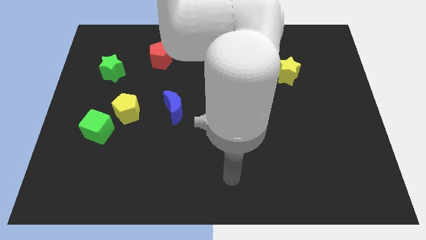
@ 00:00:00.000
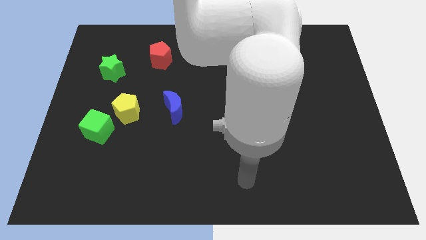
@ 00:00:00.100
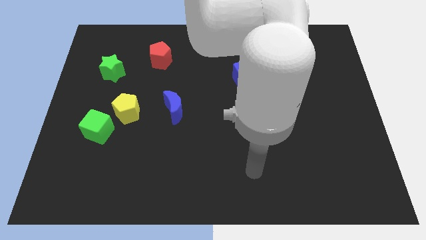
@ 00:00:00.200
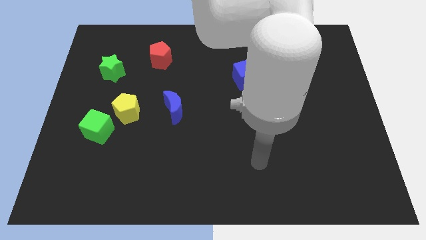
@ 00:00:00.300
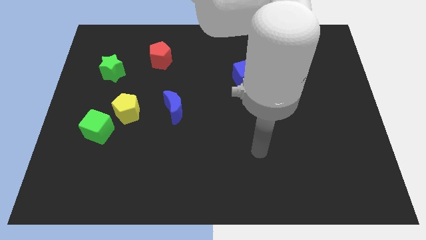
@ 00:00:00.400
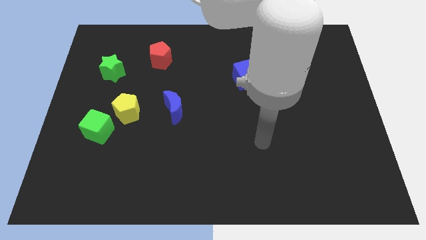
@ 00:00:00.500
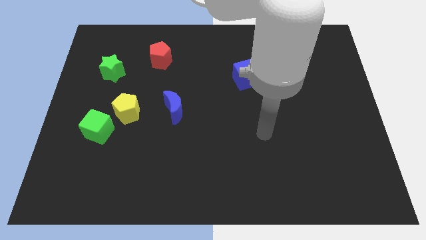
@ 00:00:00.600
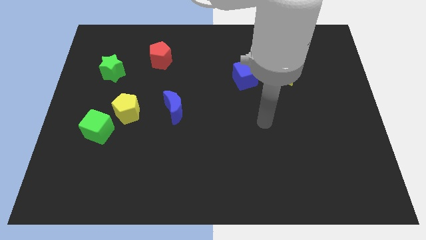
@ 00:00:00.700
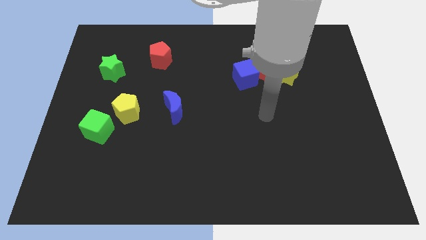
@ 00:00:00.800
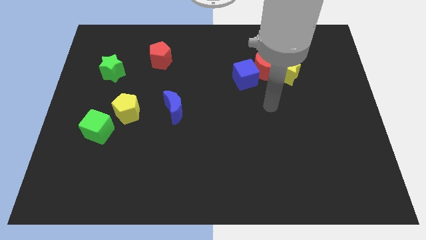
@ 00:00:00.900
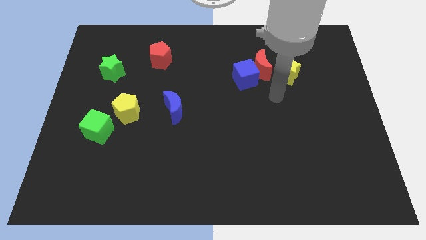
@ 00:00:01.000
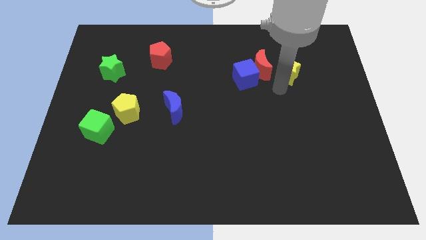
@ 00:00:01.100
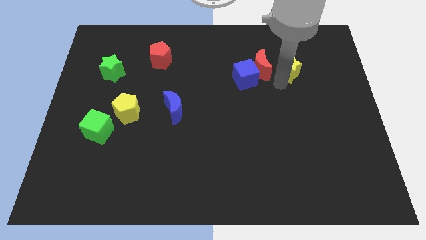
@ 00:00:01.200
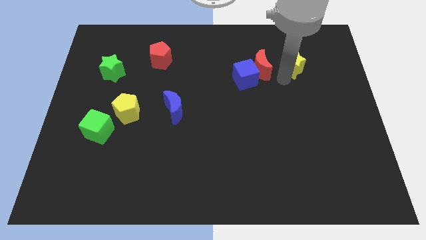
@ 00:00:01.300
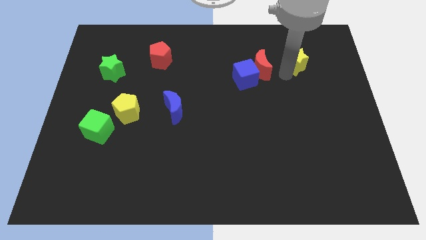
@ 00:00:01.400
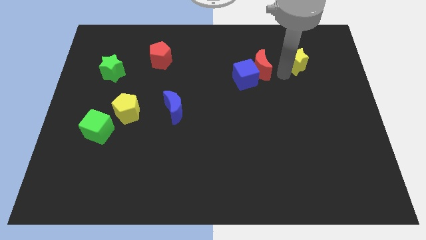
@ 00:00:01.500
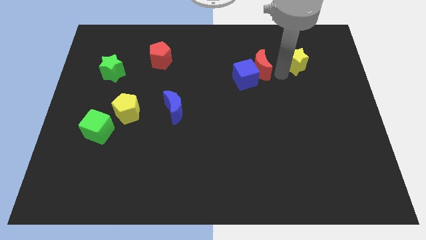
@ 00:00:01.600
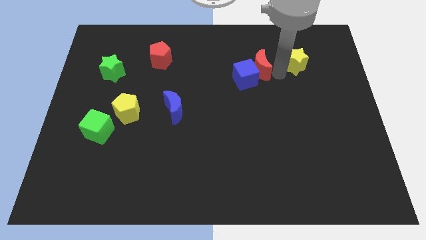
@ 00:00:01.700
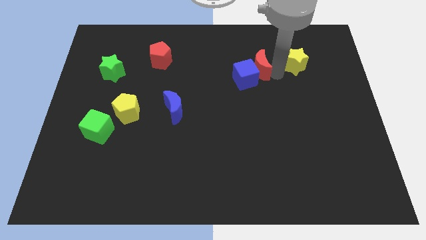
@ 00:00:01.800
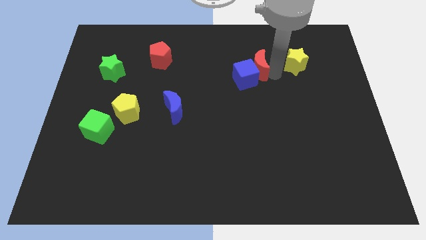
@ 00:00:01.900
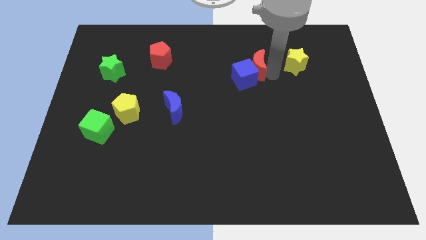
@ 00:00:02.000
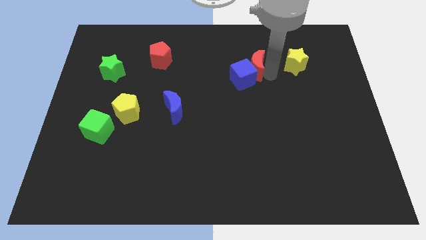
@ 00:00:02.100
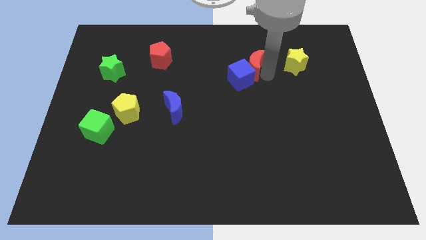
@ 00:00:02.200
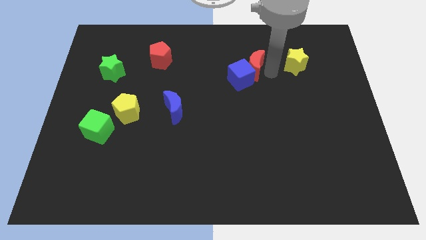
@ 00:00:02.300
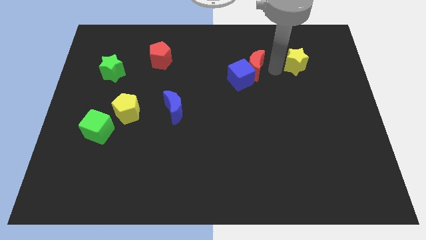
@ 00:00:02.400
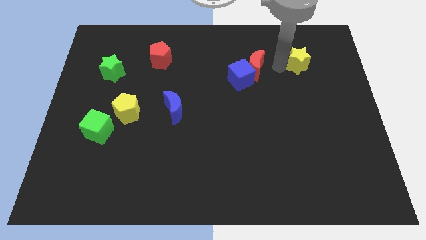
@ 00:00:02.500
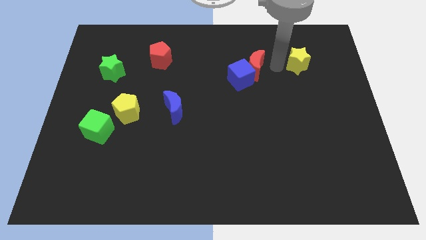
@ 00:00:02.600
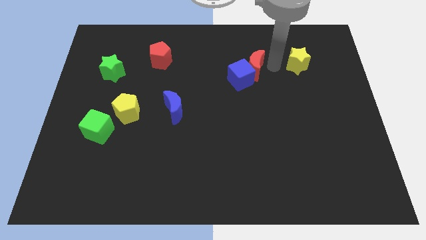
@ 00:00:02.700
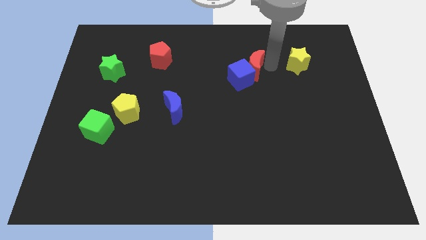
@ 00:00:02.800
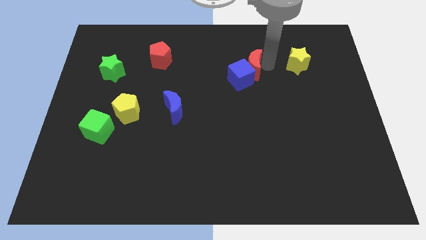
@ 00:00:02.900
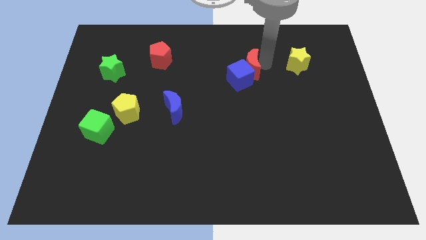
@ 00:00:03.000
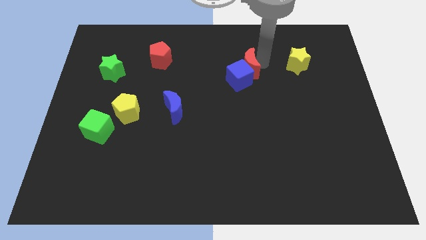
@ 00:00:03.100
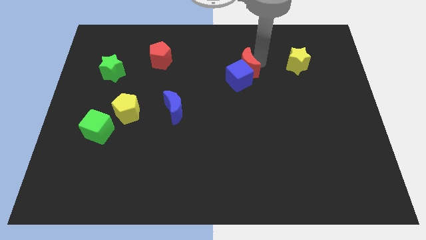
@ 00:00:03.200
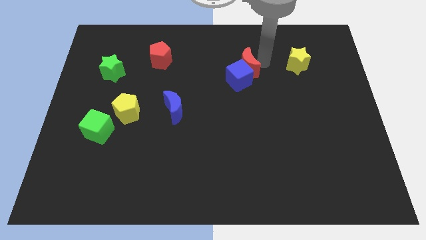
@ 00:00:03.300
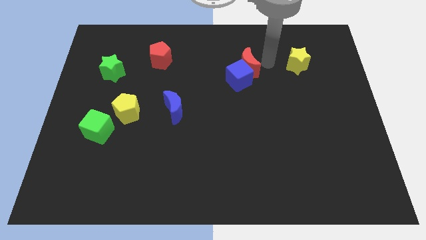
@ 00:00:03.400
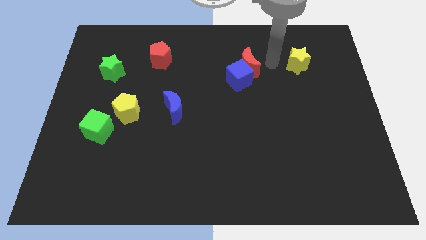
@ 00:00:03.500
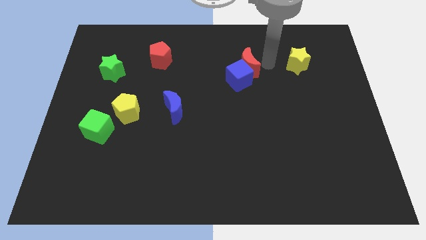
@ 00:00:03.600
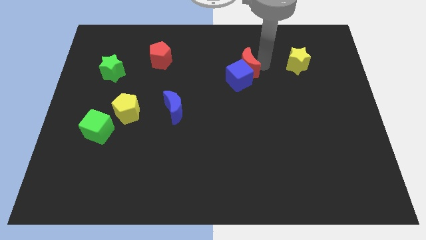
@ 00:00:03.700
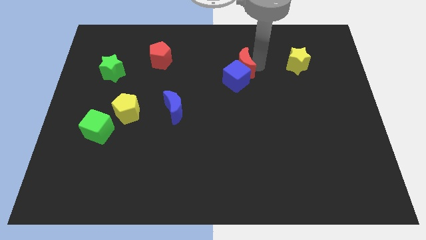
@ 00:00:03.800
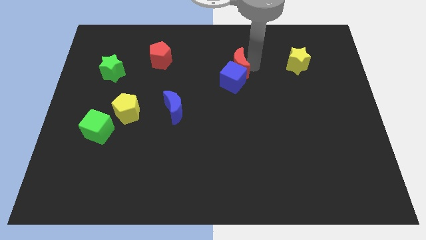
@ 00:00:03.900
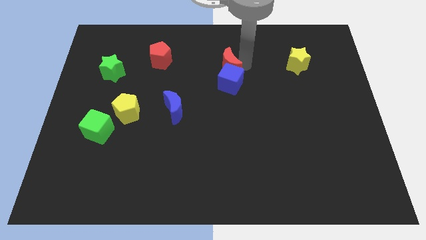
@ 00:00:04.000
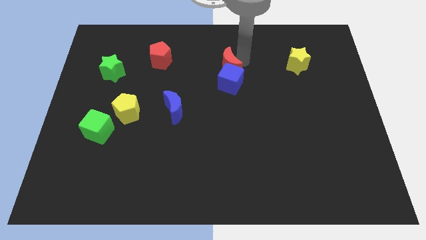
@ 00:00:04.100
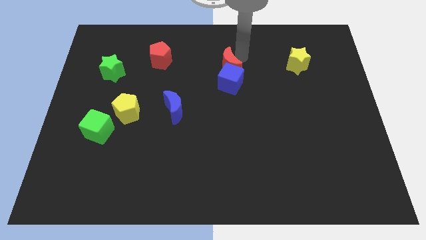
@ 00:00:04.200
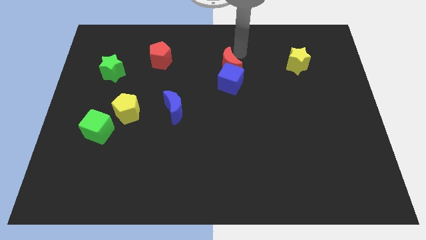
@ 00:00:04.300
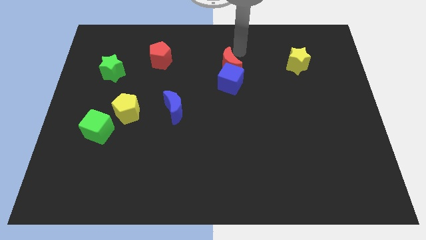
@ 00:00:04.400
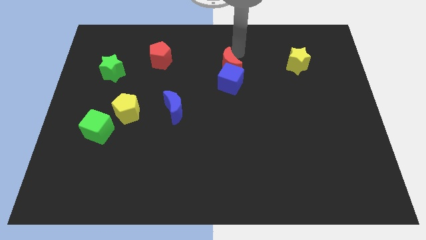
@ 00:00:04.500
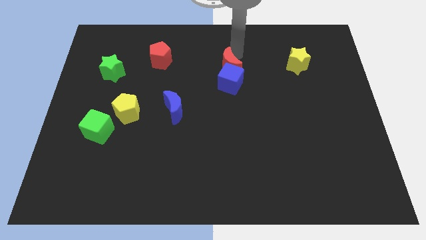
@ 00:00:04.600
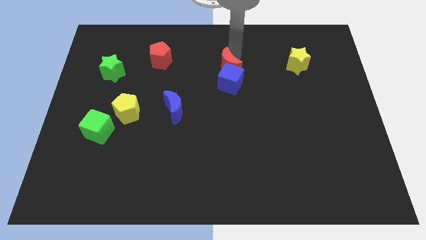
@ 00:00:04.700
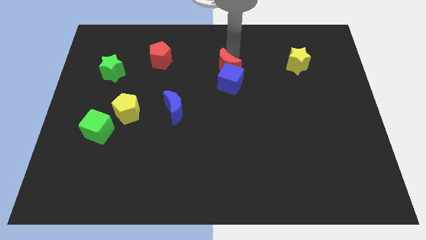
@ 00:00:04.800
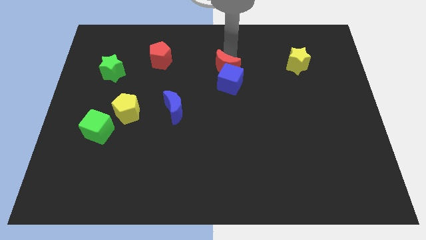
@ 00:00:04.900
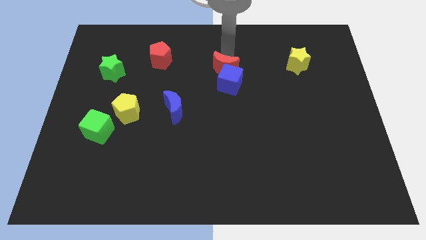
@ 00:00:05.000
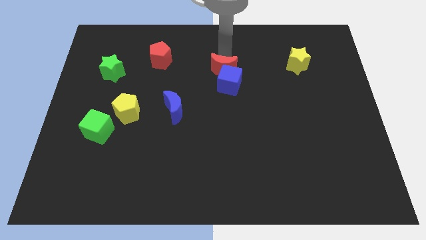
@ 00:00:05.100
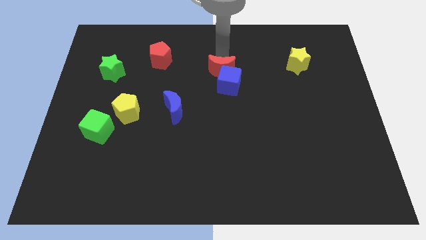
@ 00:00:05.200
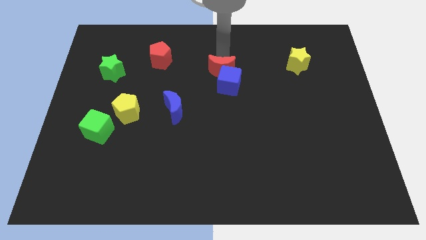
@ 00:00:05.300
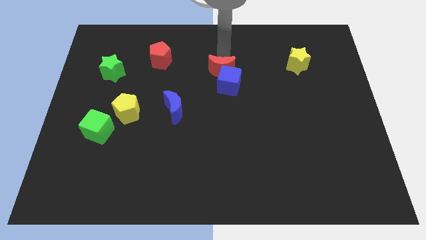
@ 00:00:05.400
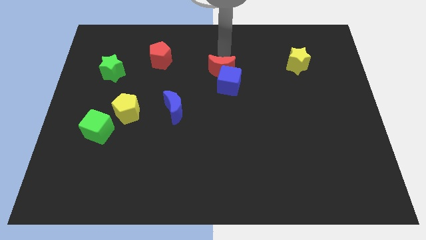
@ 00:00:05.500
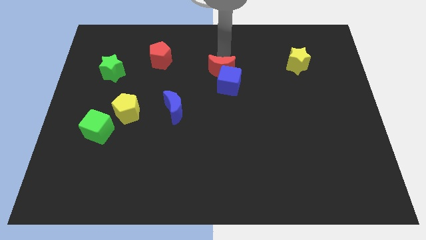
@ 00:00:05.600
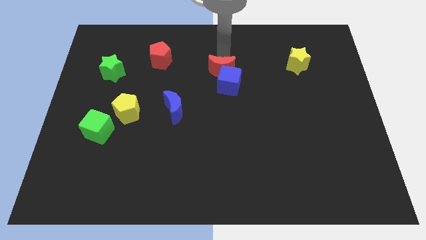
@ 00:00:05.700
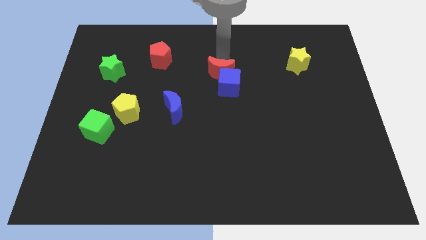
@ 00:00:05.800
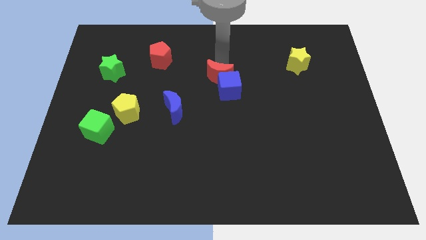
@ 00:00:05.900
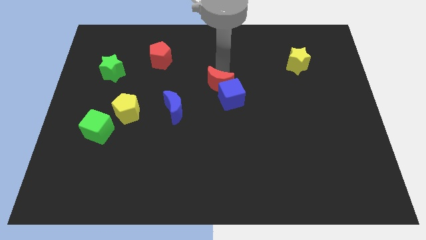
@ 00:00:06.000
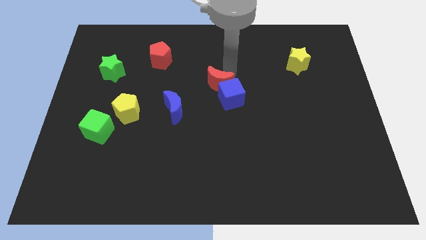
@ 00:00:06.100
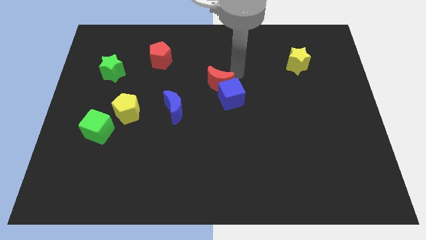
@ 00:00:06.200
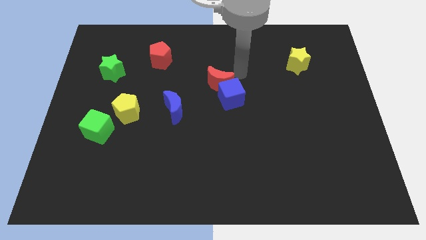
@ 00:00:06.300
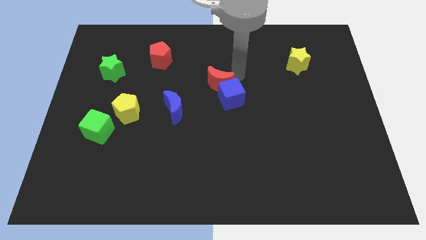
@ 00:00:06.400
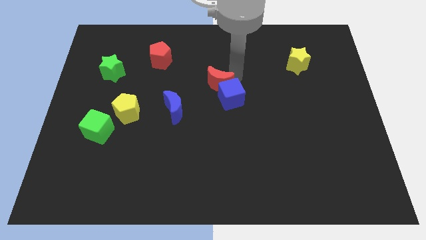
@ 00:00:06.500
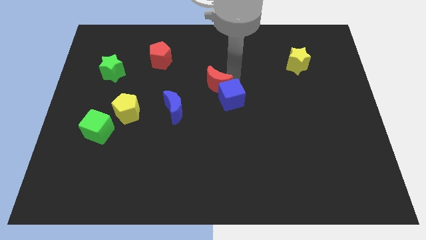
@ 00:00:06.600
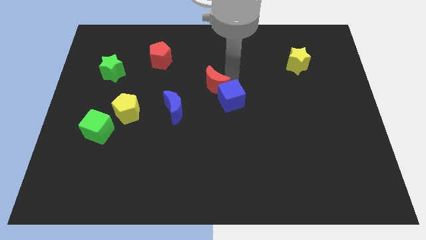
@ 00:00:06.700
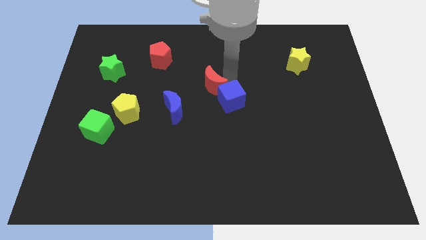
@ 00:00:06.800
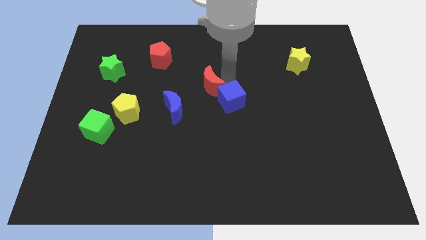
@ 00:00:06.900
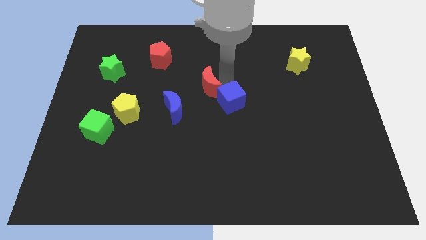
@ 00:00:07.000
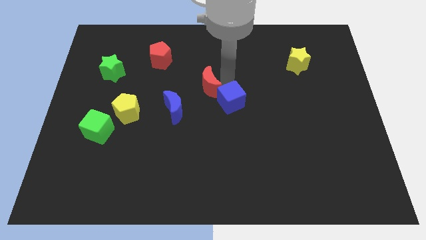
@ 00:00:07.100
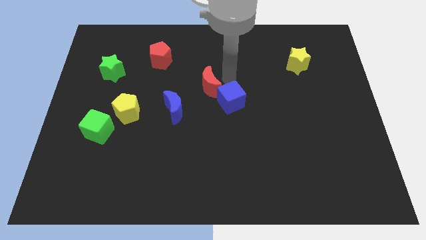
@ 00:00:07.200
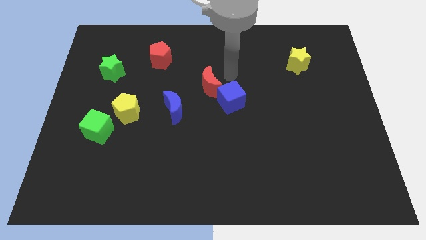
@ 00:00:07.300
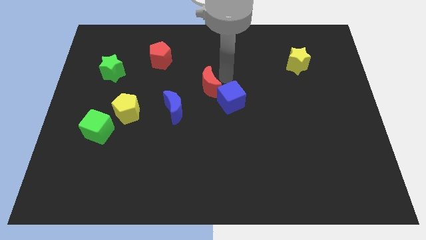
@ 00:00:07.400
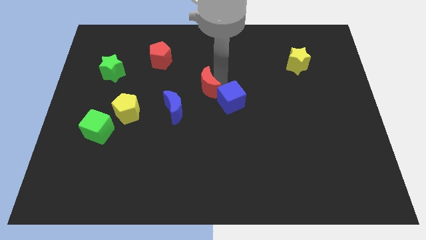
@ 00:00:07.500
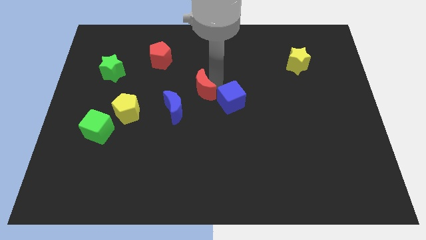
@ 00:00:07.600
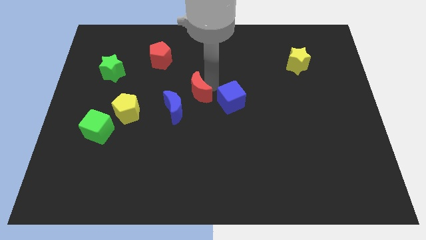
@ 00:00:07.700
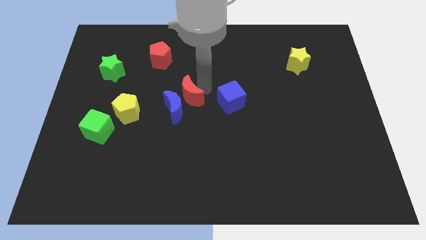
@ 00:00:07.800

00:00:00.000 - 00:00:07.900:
put the red moon to the blue moon
